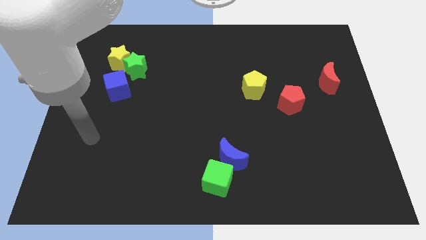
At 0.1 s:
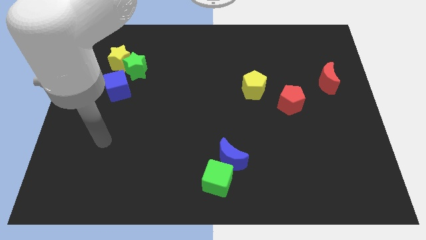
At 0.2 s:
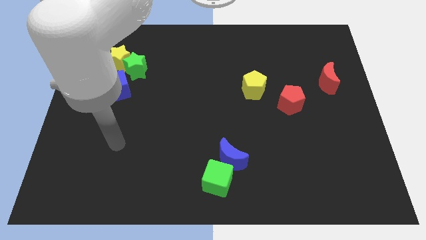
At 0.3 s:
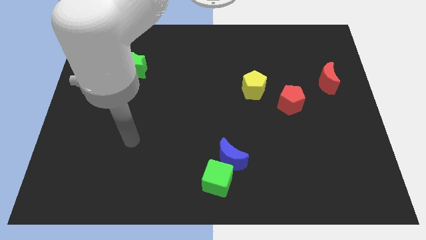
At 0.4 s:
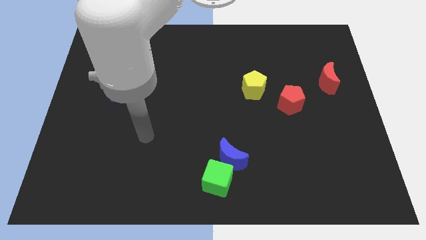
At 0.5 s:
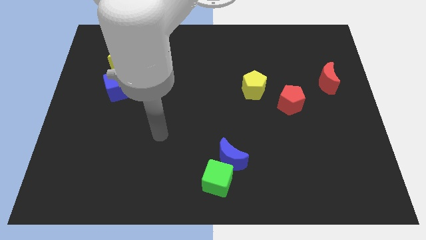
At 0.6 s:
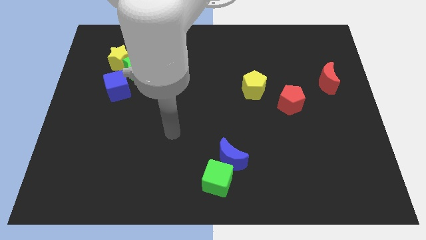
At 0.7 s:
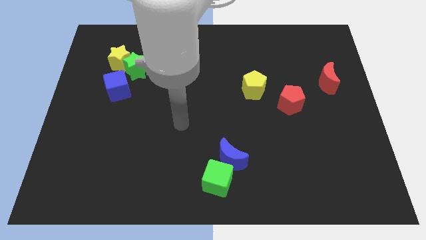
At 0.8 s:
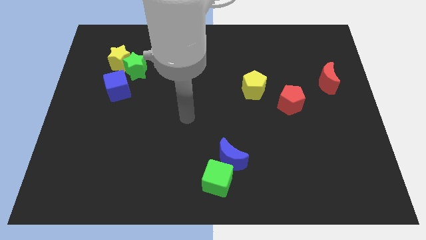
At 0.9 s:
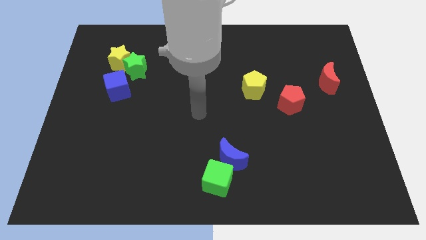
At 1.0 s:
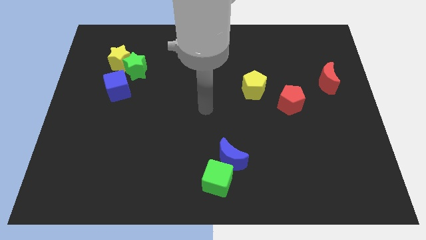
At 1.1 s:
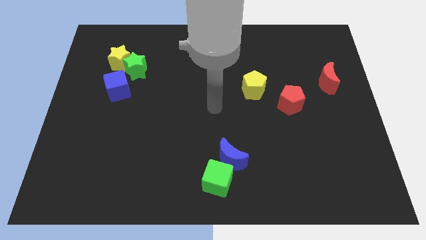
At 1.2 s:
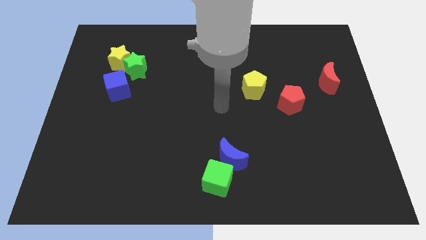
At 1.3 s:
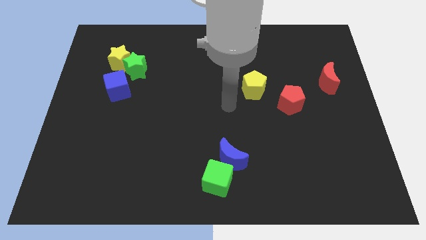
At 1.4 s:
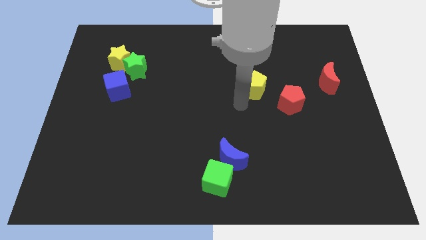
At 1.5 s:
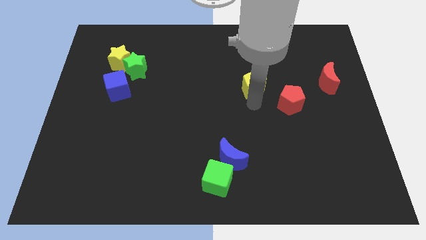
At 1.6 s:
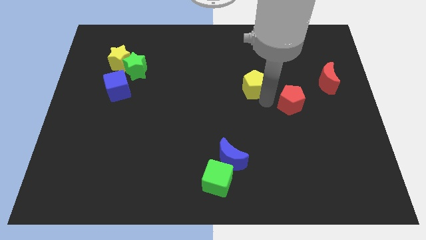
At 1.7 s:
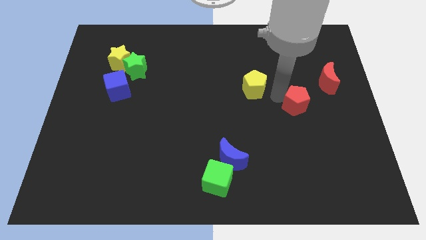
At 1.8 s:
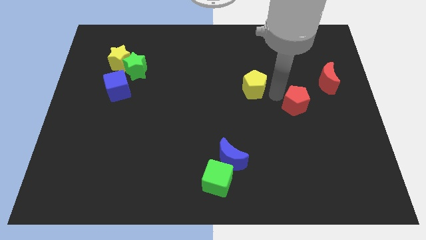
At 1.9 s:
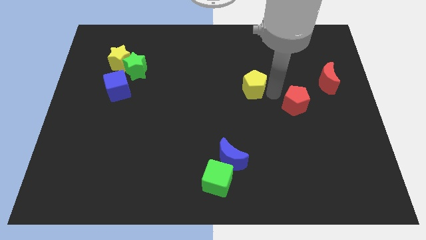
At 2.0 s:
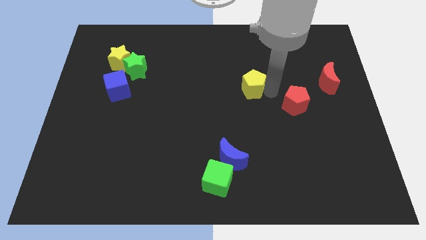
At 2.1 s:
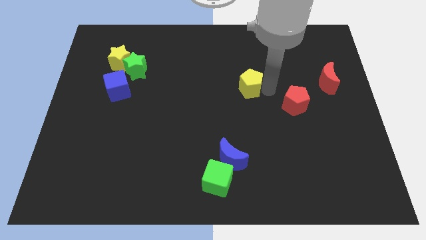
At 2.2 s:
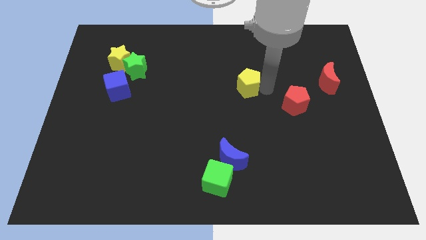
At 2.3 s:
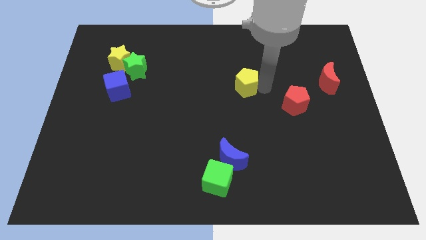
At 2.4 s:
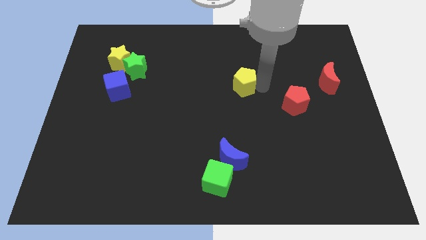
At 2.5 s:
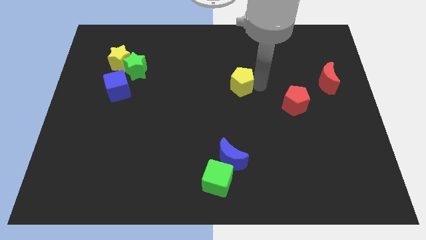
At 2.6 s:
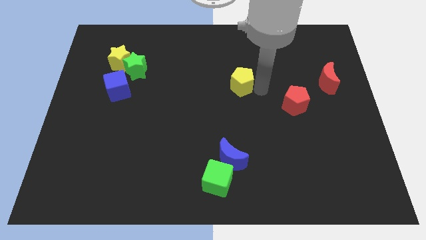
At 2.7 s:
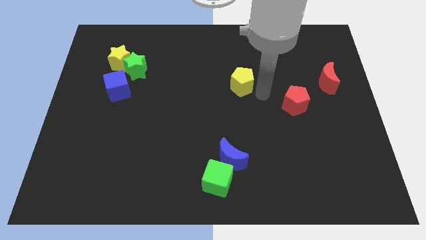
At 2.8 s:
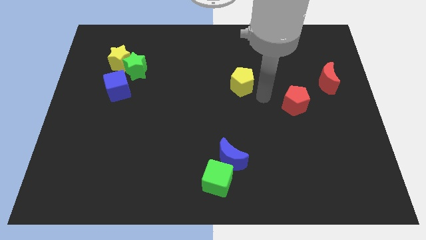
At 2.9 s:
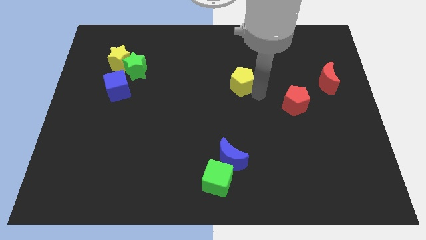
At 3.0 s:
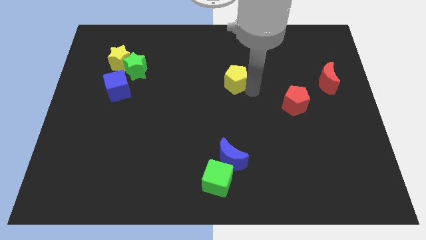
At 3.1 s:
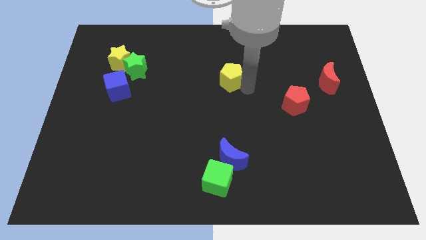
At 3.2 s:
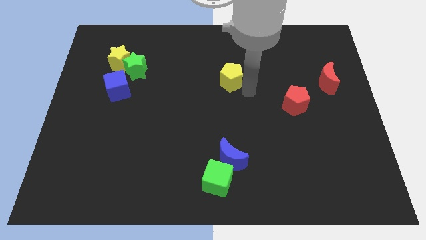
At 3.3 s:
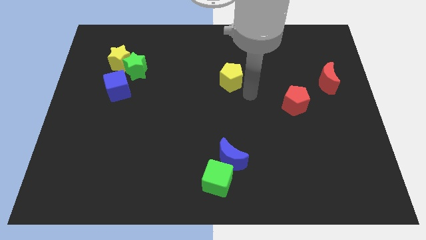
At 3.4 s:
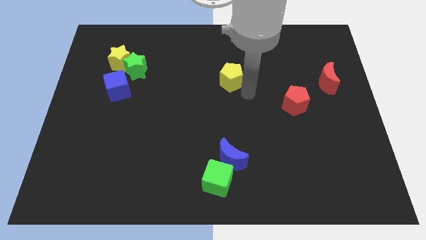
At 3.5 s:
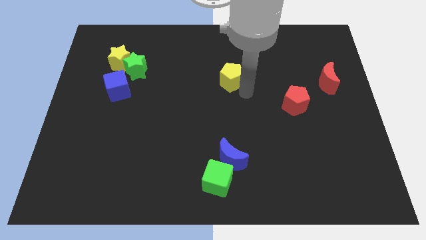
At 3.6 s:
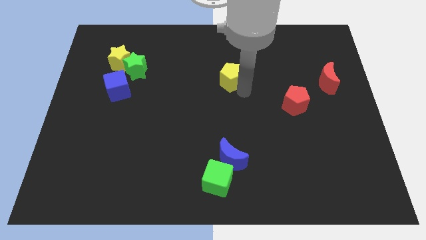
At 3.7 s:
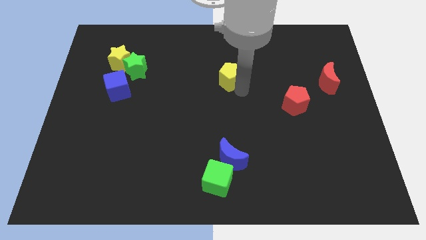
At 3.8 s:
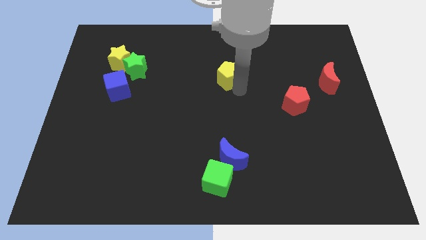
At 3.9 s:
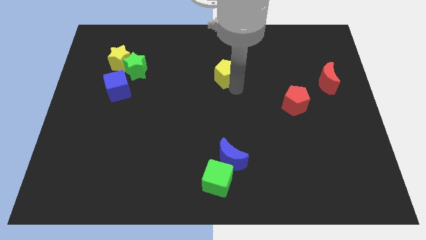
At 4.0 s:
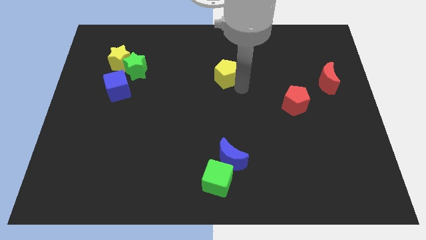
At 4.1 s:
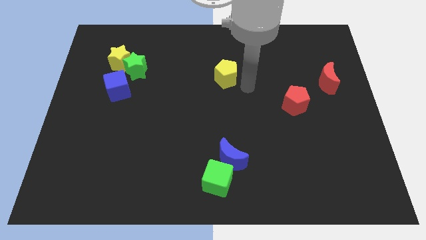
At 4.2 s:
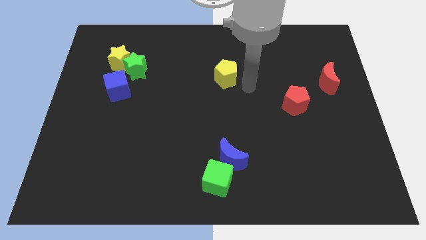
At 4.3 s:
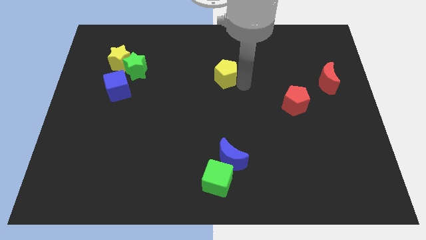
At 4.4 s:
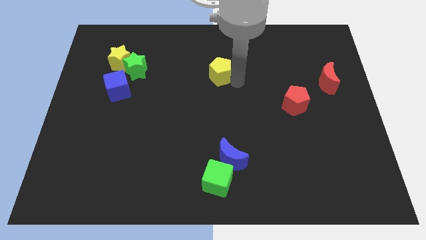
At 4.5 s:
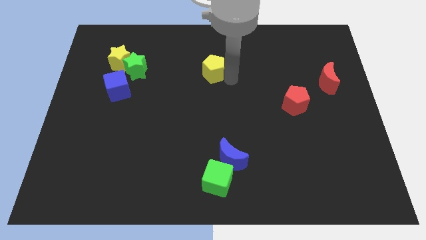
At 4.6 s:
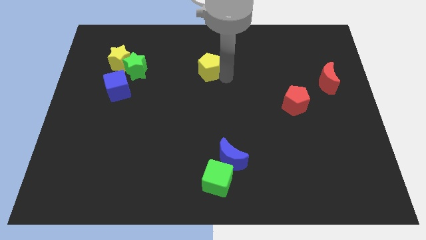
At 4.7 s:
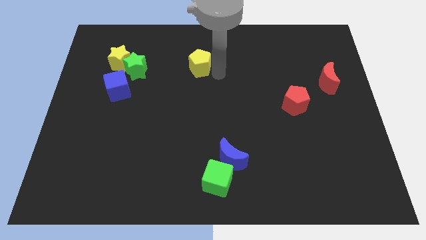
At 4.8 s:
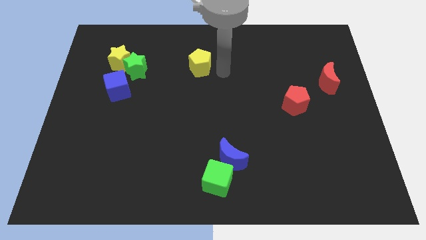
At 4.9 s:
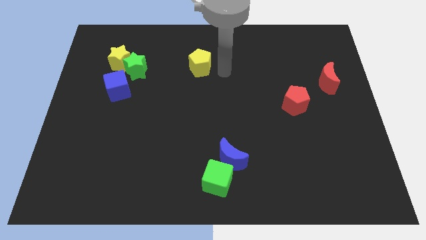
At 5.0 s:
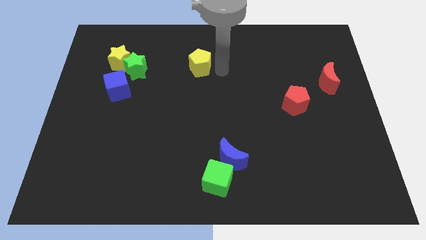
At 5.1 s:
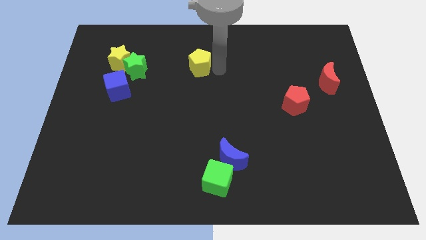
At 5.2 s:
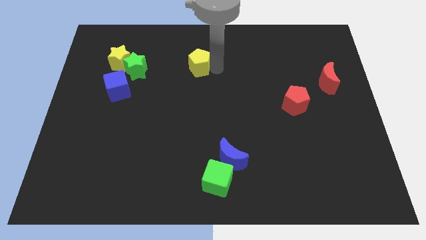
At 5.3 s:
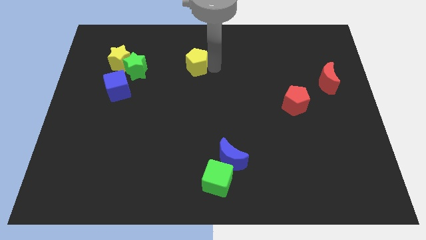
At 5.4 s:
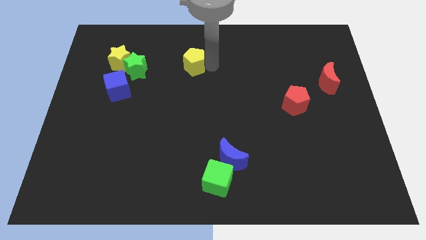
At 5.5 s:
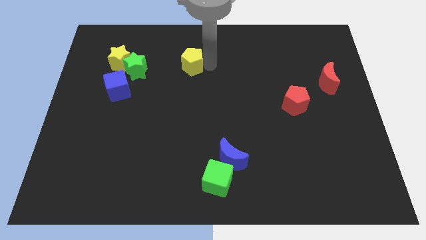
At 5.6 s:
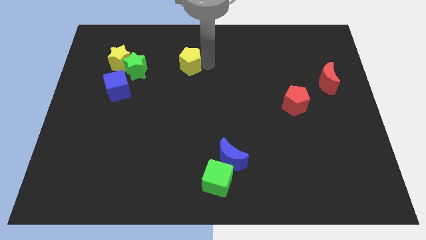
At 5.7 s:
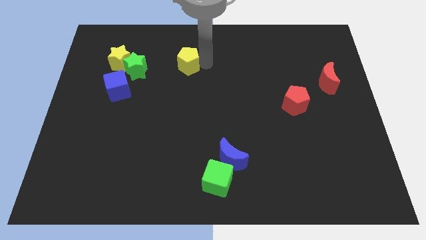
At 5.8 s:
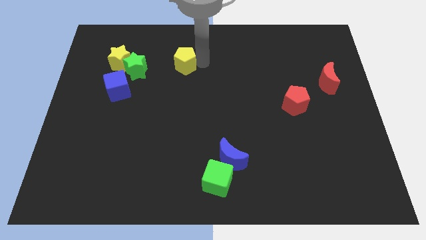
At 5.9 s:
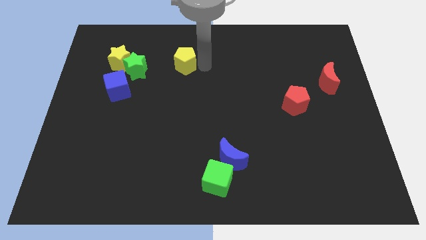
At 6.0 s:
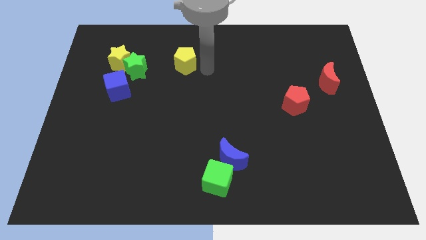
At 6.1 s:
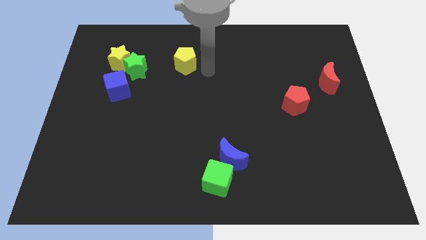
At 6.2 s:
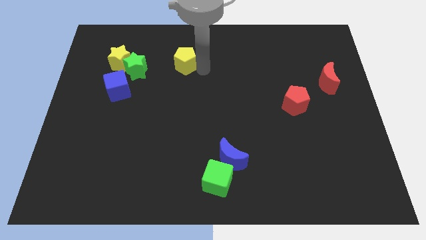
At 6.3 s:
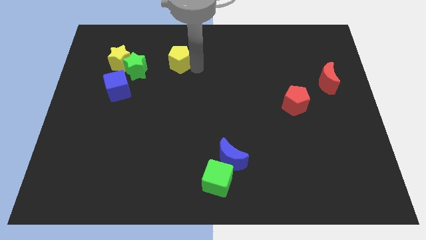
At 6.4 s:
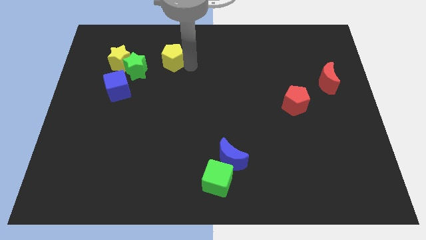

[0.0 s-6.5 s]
slide the yellow pentagon to the top right of the green star

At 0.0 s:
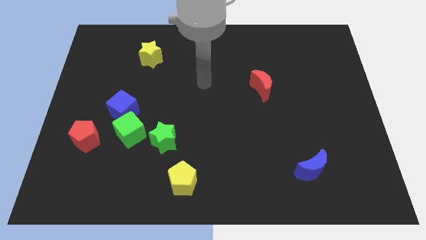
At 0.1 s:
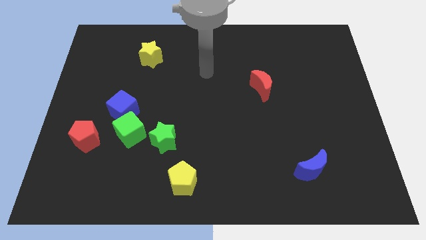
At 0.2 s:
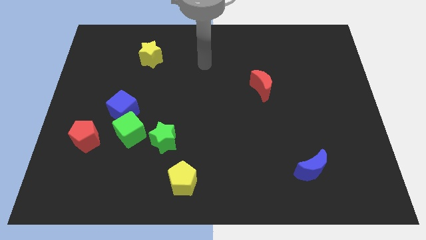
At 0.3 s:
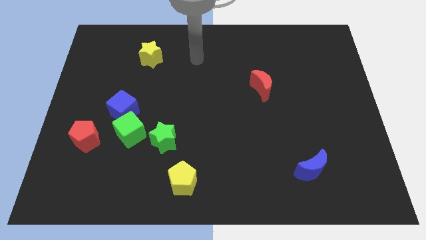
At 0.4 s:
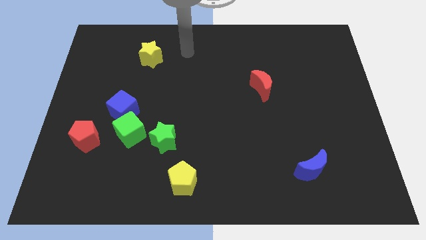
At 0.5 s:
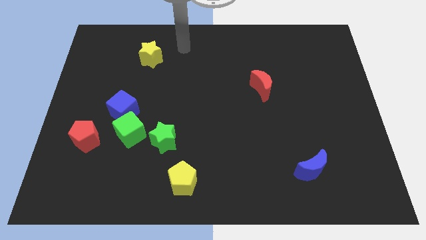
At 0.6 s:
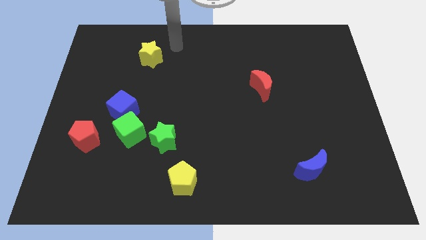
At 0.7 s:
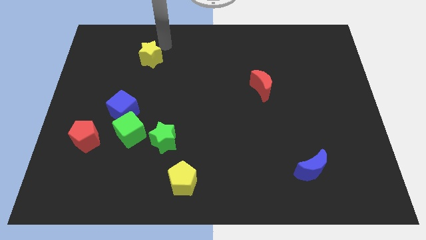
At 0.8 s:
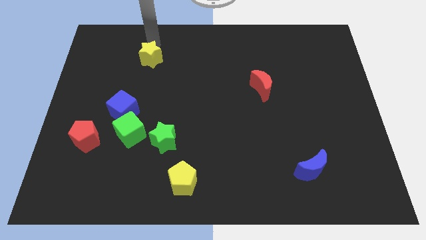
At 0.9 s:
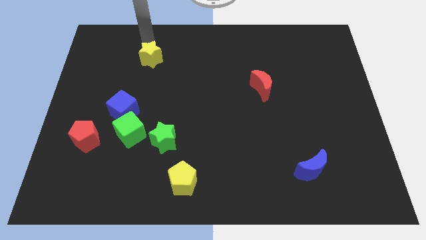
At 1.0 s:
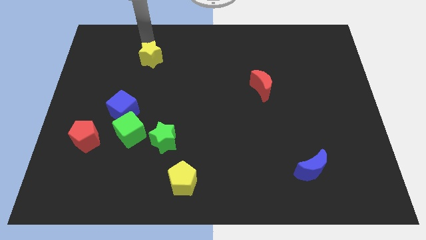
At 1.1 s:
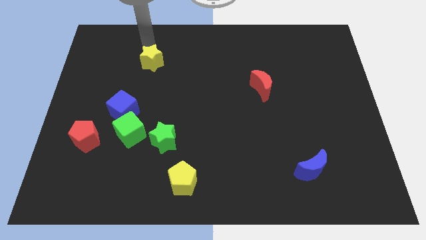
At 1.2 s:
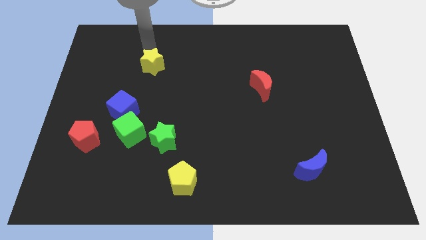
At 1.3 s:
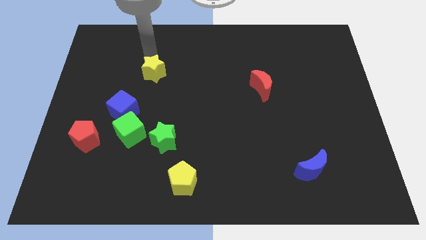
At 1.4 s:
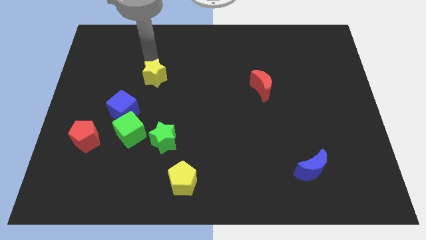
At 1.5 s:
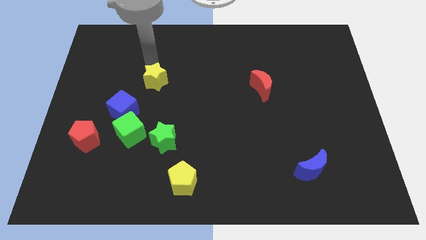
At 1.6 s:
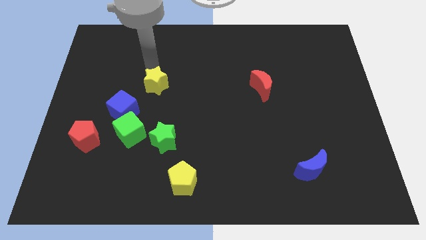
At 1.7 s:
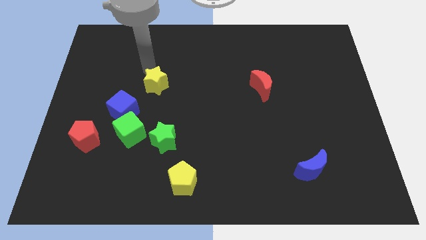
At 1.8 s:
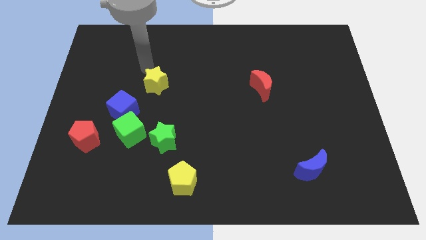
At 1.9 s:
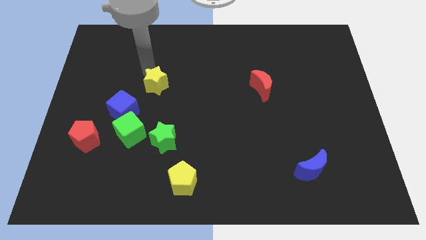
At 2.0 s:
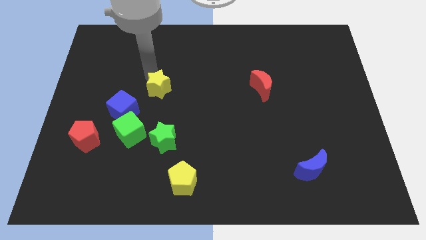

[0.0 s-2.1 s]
push the yellow star above the green star
